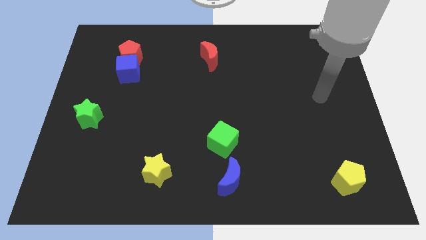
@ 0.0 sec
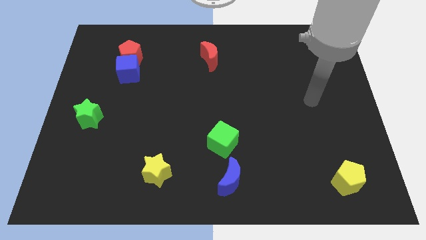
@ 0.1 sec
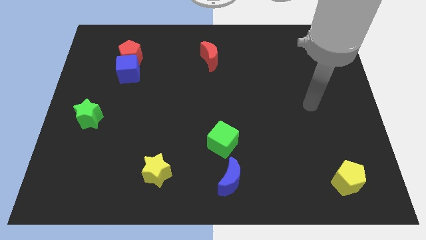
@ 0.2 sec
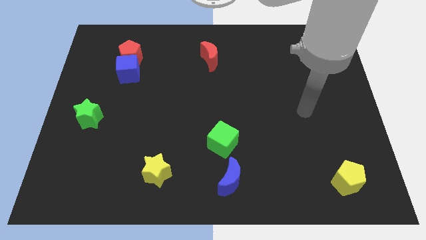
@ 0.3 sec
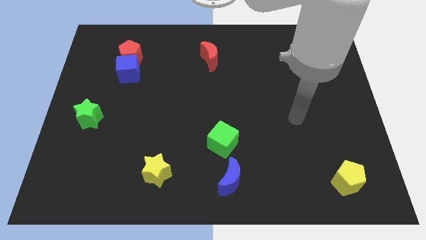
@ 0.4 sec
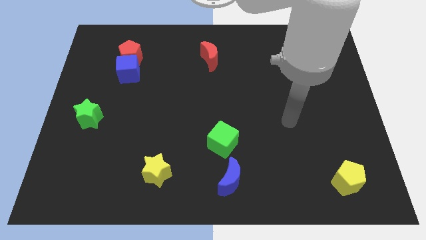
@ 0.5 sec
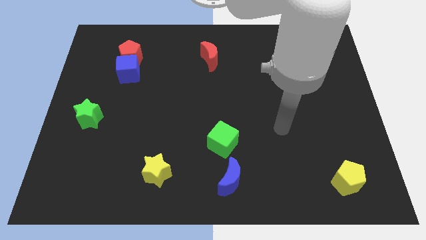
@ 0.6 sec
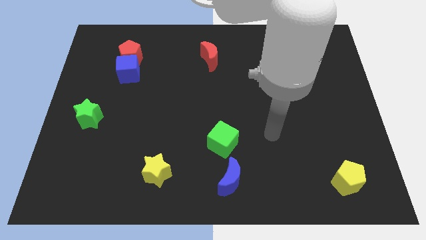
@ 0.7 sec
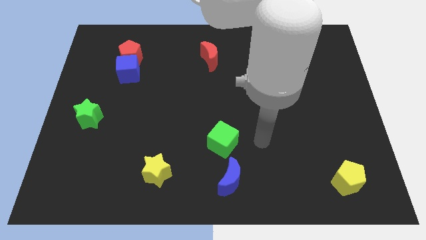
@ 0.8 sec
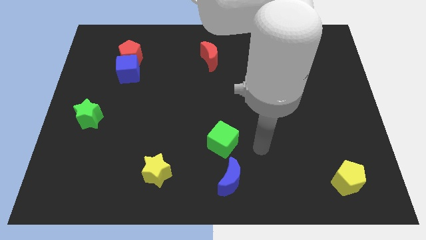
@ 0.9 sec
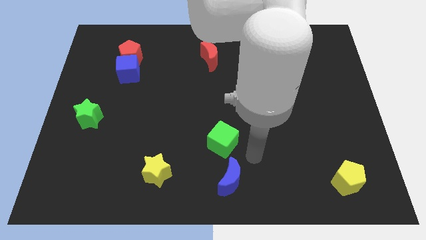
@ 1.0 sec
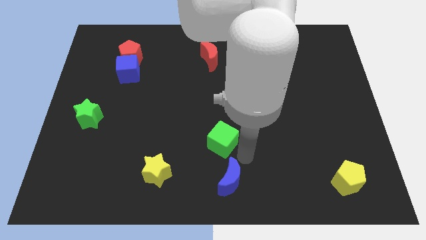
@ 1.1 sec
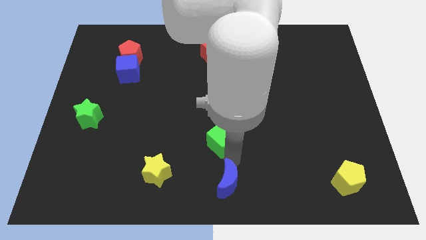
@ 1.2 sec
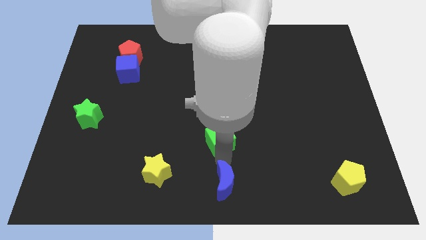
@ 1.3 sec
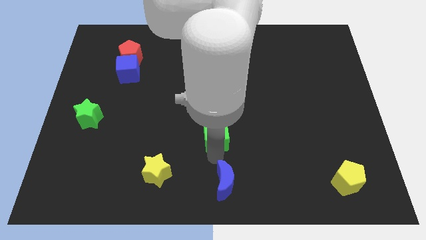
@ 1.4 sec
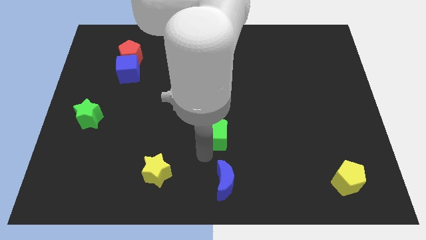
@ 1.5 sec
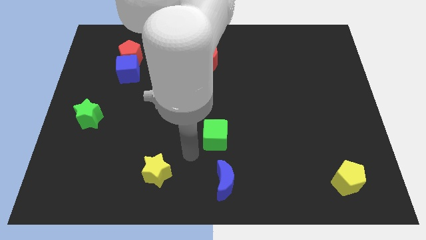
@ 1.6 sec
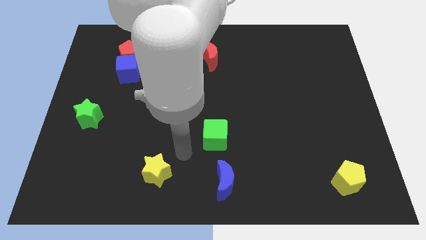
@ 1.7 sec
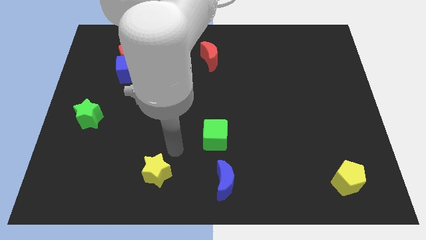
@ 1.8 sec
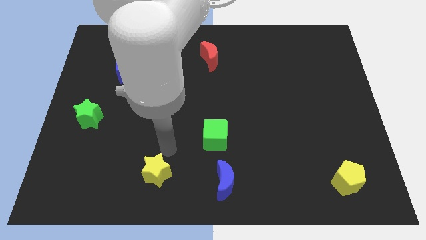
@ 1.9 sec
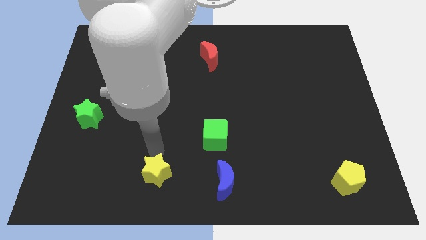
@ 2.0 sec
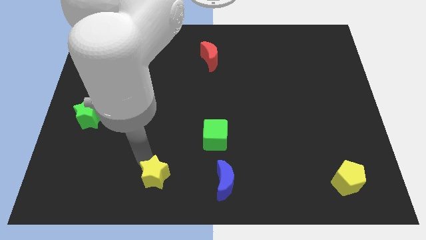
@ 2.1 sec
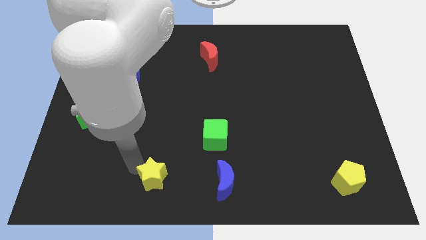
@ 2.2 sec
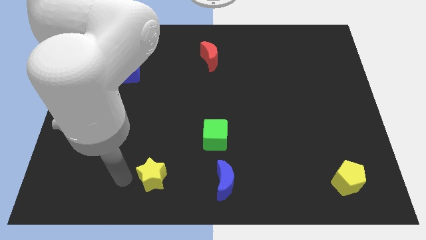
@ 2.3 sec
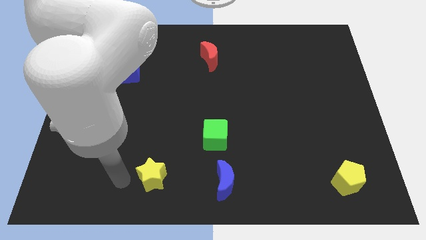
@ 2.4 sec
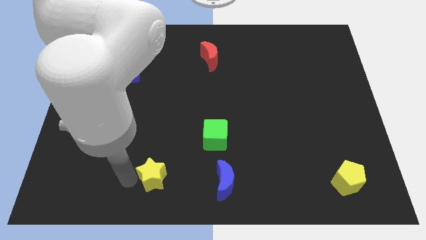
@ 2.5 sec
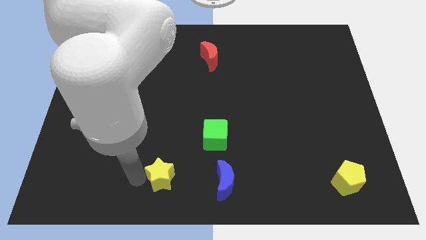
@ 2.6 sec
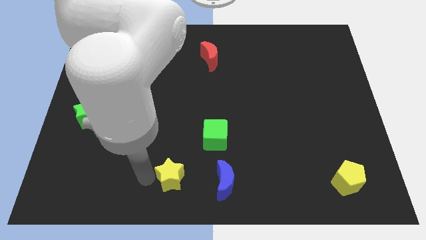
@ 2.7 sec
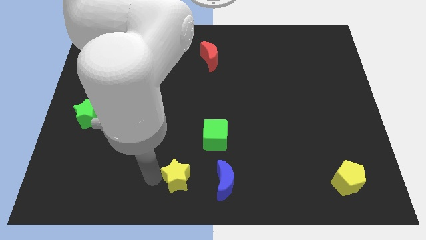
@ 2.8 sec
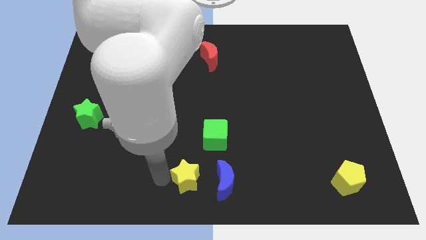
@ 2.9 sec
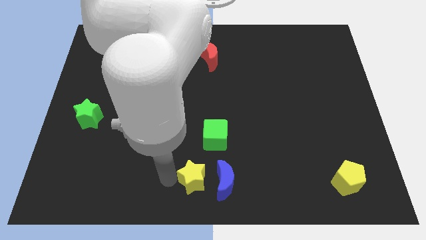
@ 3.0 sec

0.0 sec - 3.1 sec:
slightly move the yellow star to the right

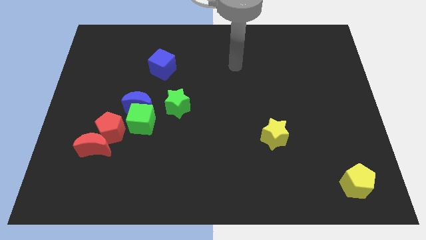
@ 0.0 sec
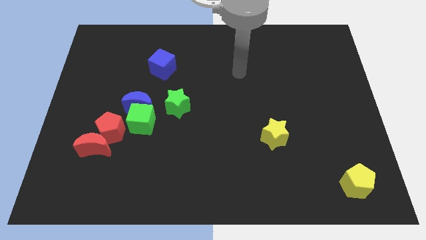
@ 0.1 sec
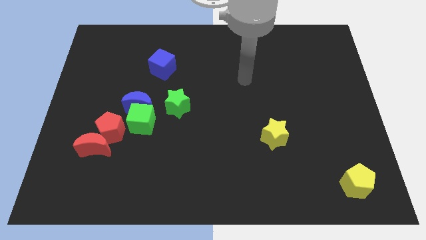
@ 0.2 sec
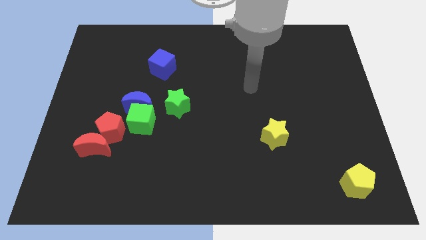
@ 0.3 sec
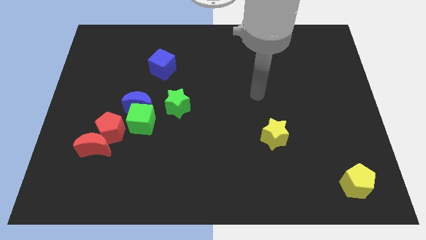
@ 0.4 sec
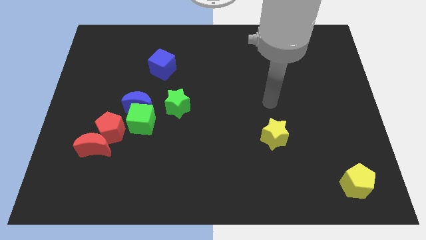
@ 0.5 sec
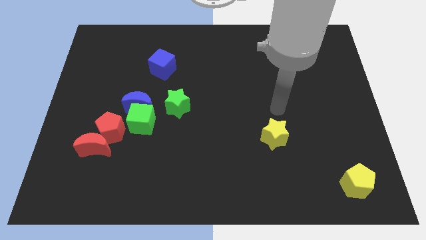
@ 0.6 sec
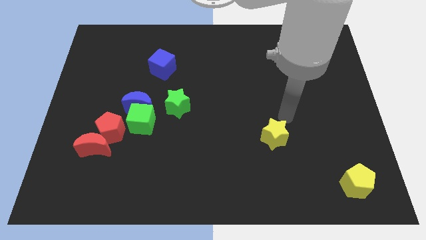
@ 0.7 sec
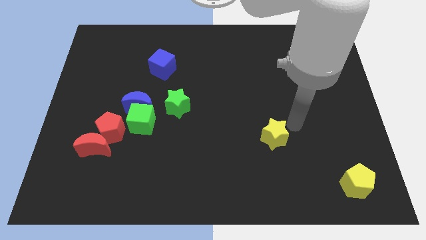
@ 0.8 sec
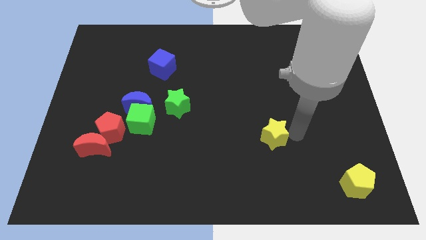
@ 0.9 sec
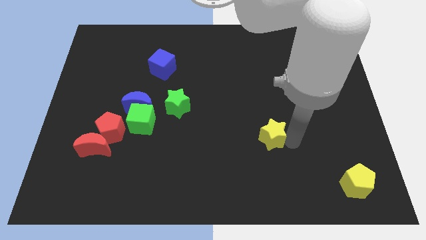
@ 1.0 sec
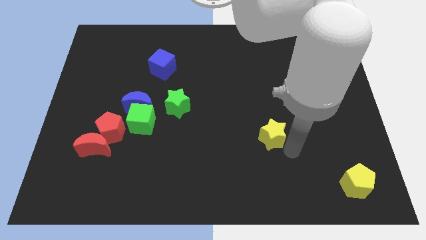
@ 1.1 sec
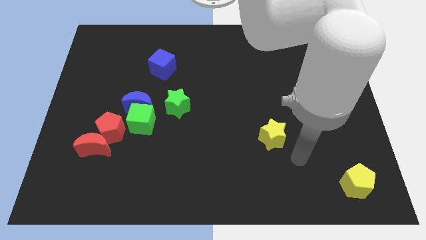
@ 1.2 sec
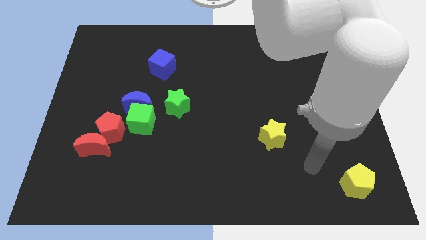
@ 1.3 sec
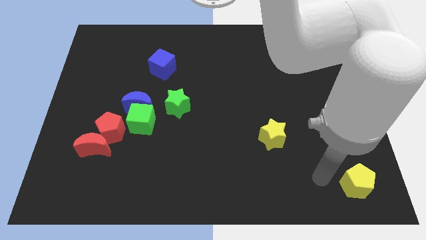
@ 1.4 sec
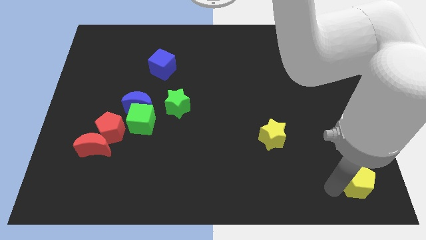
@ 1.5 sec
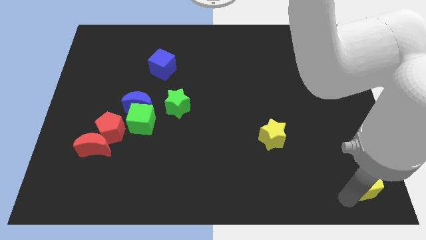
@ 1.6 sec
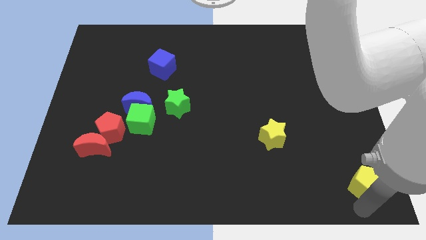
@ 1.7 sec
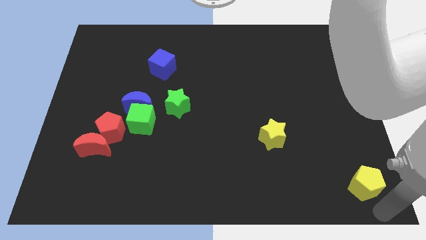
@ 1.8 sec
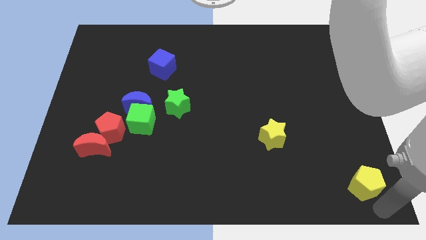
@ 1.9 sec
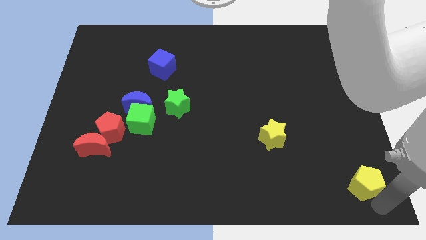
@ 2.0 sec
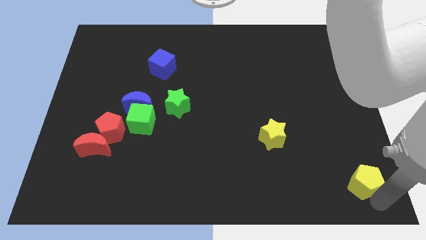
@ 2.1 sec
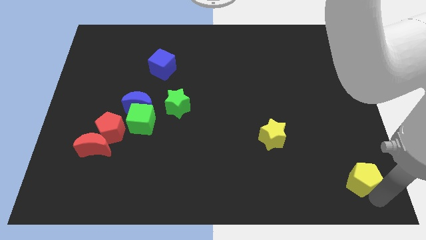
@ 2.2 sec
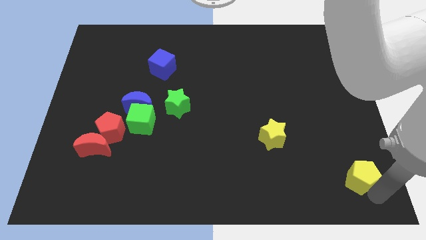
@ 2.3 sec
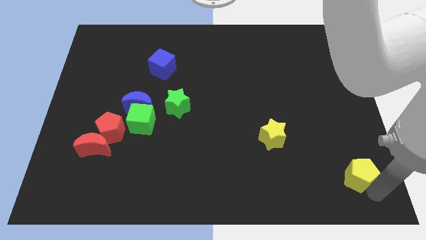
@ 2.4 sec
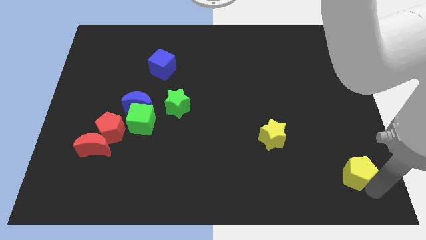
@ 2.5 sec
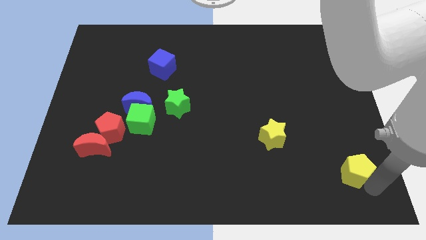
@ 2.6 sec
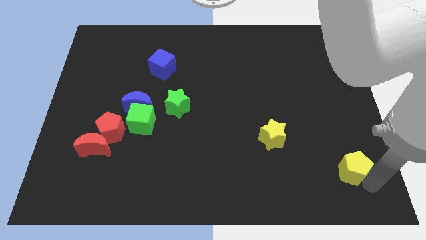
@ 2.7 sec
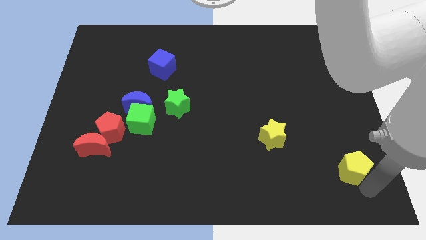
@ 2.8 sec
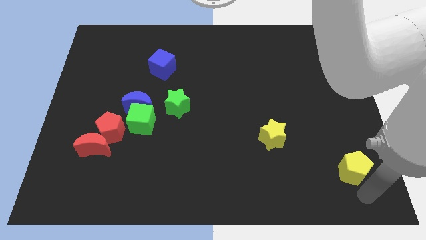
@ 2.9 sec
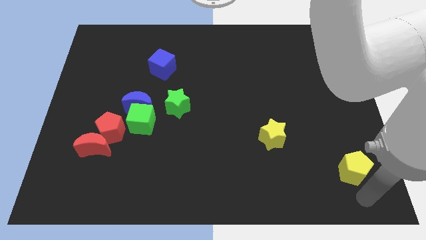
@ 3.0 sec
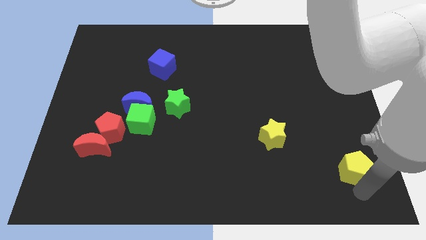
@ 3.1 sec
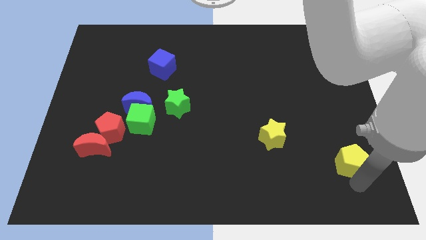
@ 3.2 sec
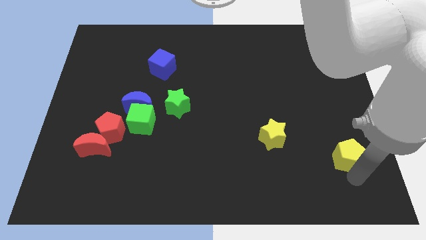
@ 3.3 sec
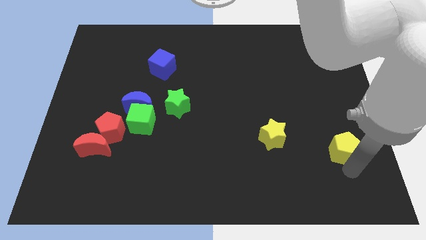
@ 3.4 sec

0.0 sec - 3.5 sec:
move the yellow pentagon a bit upwards

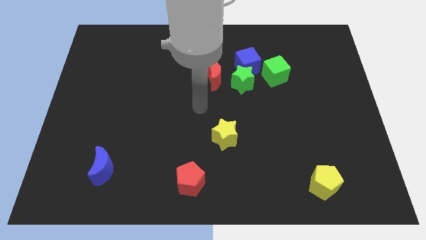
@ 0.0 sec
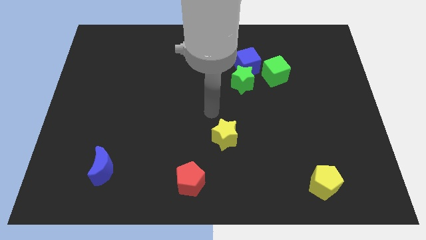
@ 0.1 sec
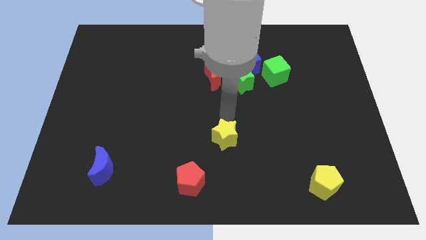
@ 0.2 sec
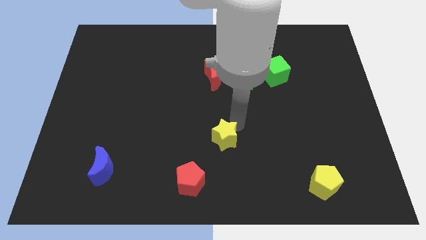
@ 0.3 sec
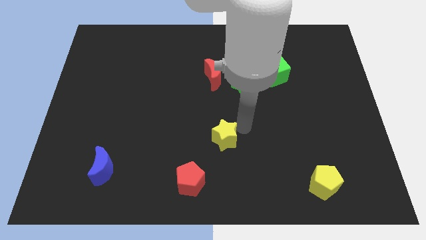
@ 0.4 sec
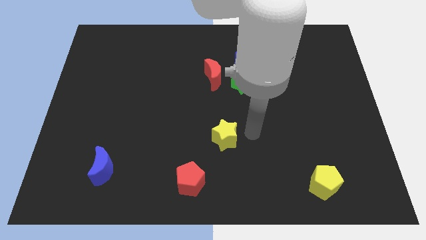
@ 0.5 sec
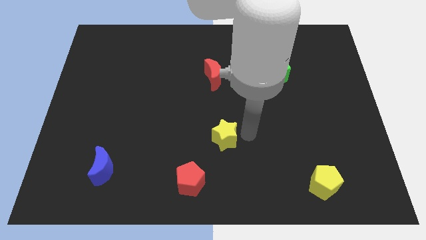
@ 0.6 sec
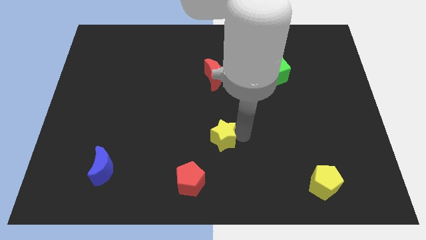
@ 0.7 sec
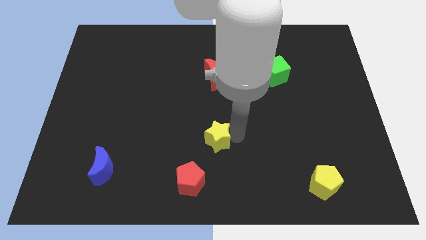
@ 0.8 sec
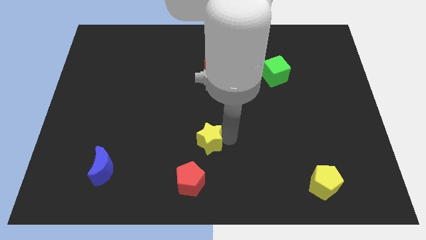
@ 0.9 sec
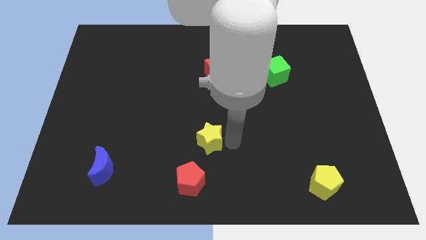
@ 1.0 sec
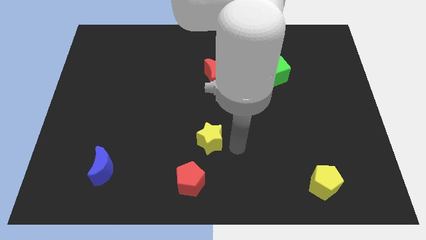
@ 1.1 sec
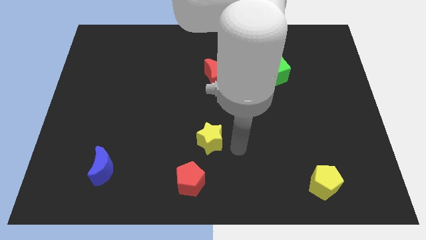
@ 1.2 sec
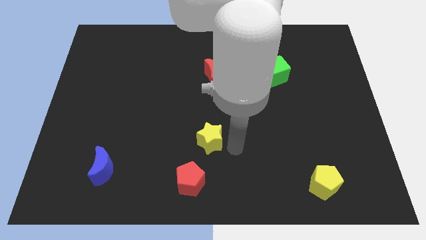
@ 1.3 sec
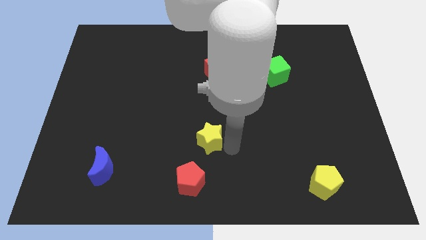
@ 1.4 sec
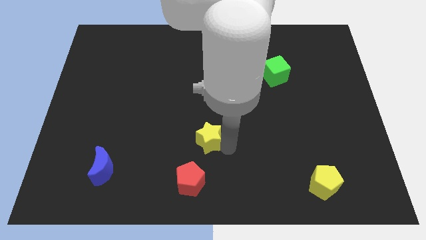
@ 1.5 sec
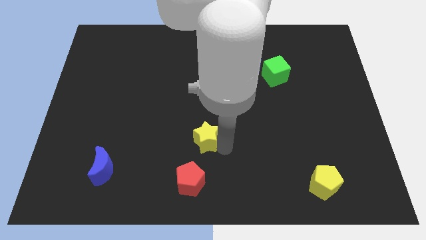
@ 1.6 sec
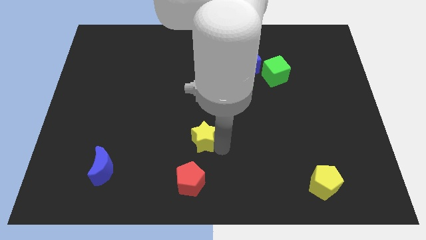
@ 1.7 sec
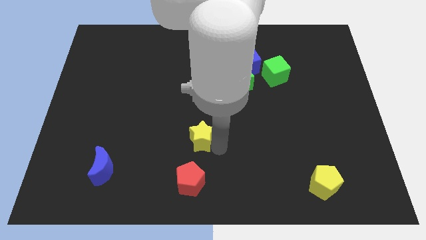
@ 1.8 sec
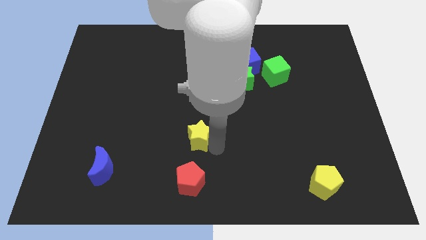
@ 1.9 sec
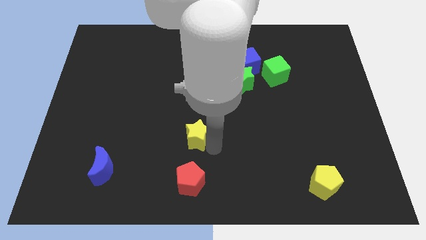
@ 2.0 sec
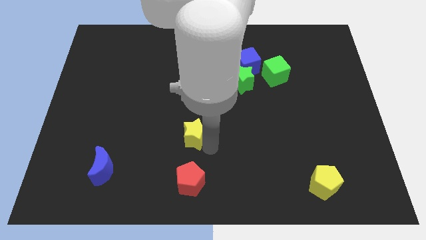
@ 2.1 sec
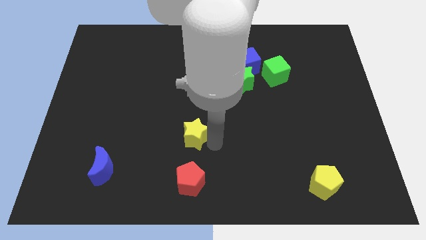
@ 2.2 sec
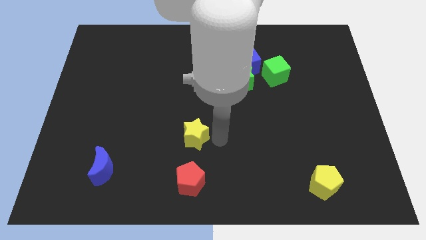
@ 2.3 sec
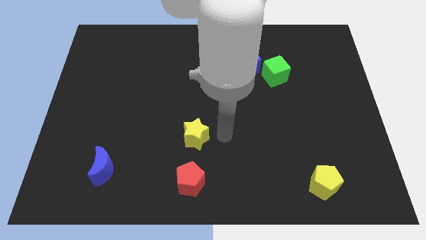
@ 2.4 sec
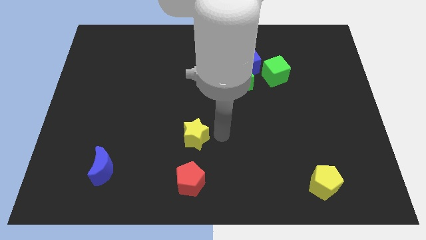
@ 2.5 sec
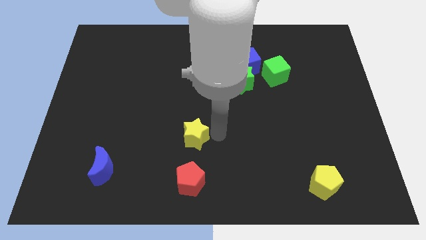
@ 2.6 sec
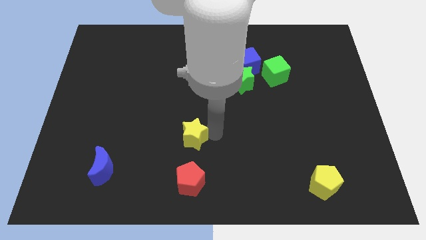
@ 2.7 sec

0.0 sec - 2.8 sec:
slide the yellow star a bit left
